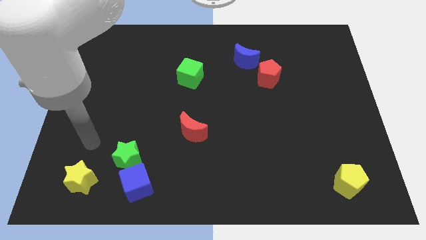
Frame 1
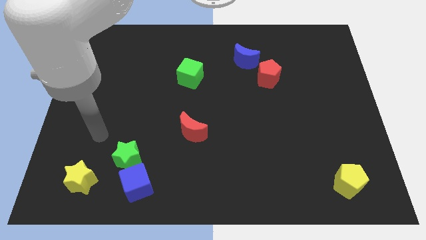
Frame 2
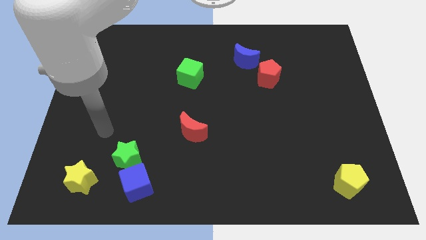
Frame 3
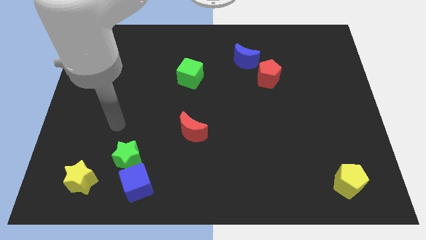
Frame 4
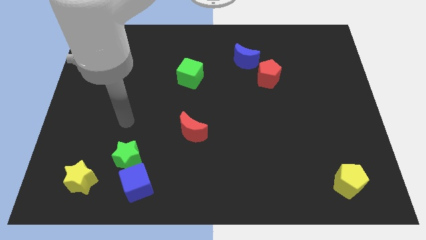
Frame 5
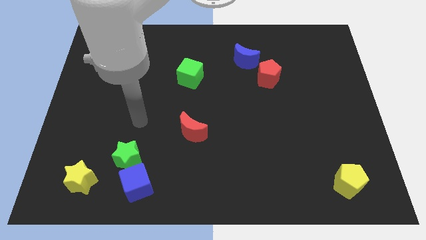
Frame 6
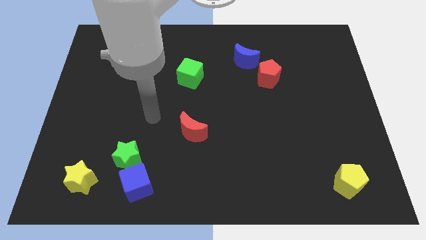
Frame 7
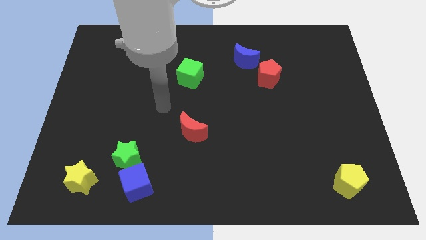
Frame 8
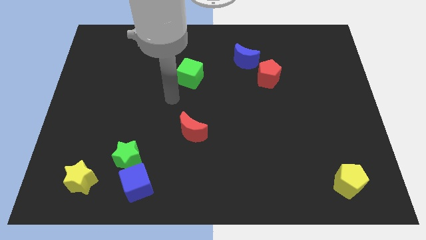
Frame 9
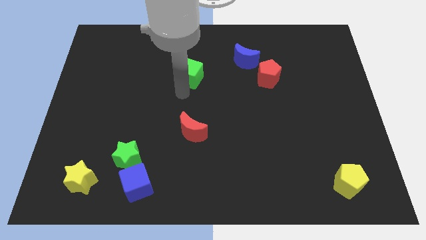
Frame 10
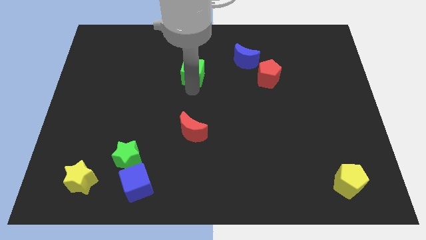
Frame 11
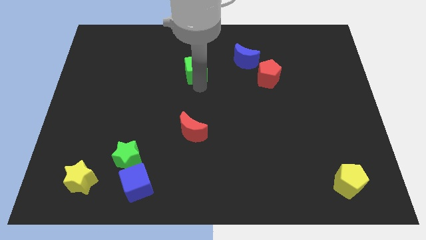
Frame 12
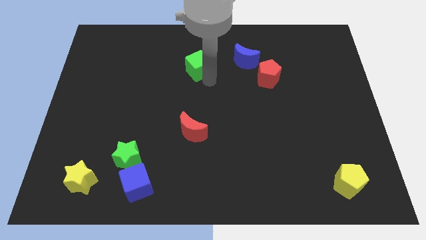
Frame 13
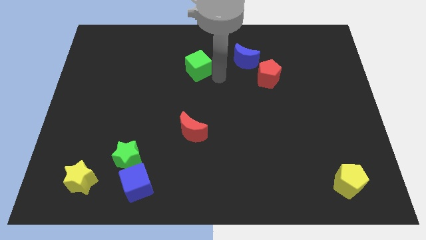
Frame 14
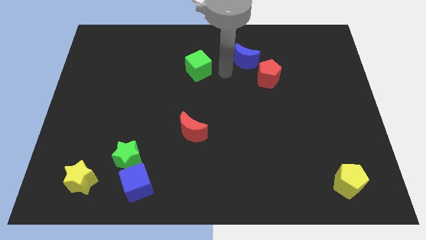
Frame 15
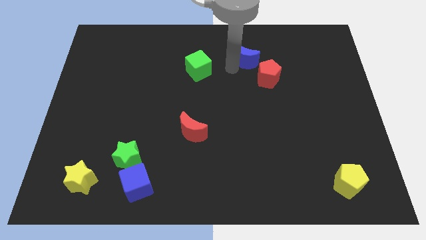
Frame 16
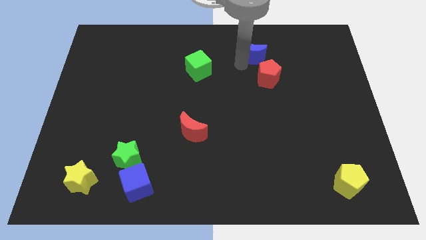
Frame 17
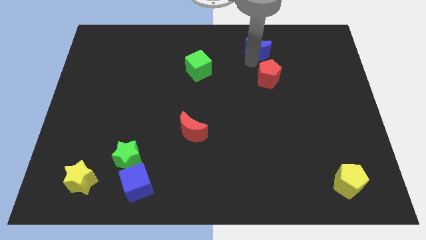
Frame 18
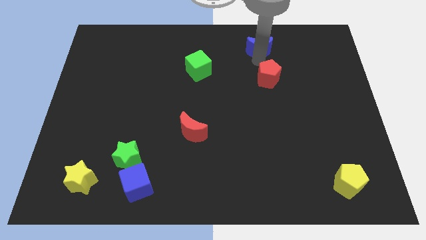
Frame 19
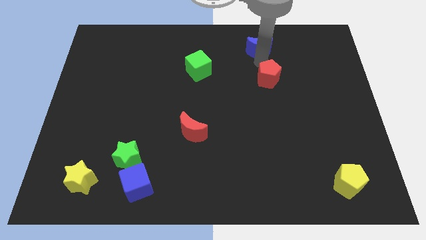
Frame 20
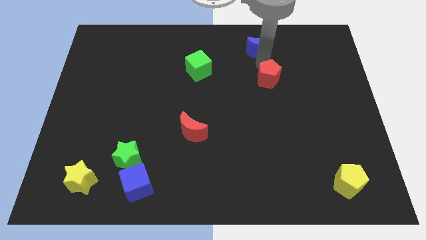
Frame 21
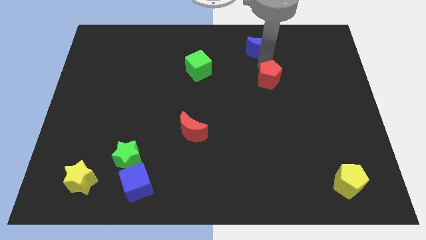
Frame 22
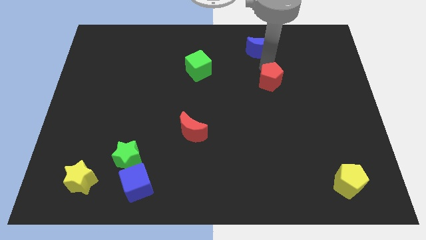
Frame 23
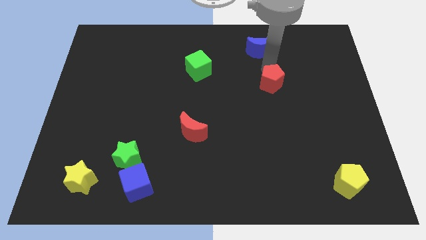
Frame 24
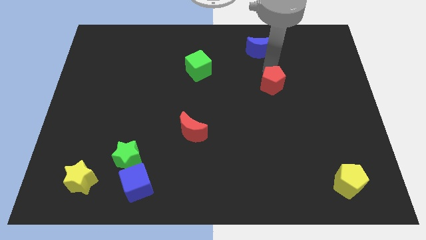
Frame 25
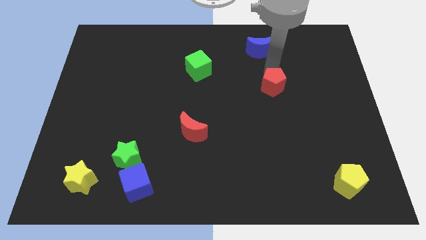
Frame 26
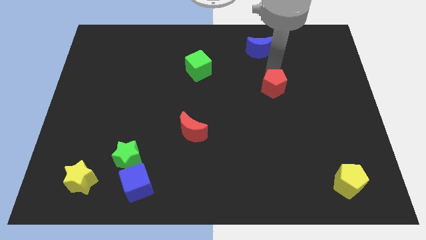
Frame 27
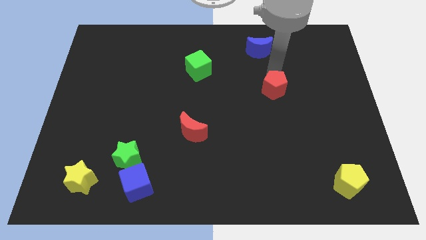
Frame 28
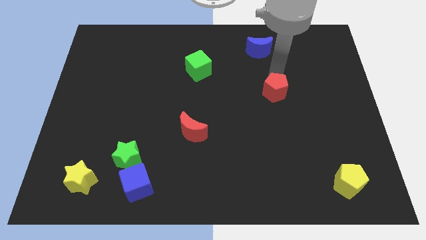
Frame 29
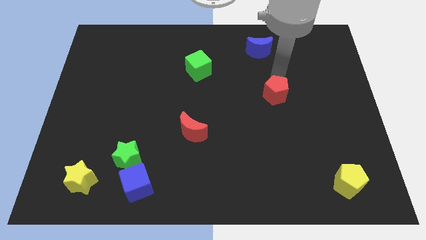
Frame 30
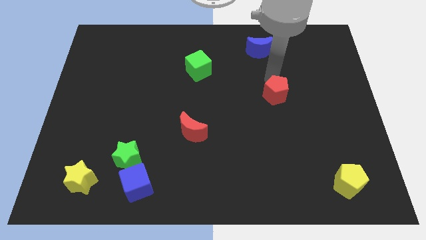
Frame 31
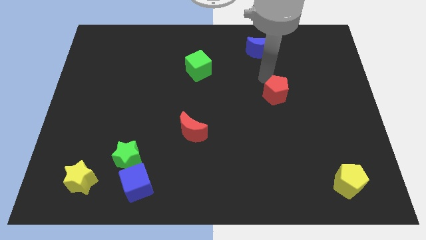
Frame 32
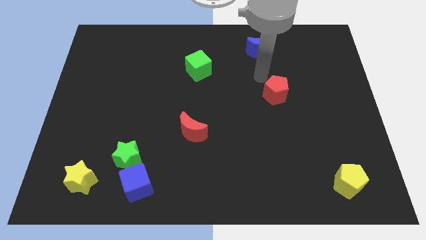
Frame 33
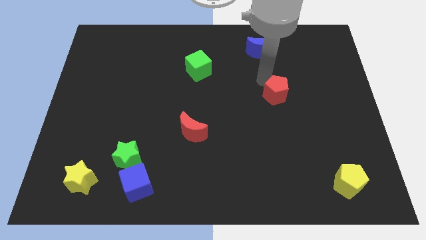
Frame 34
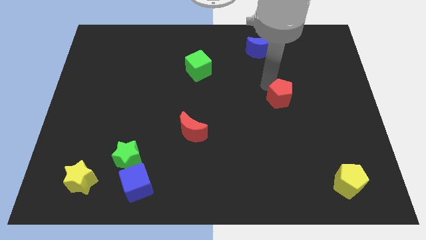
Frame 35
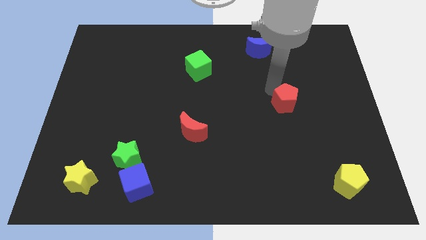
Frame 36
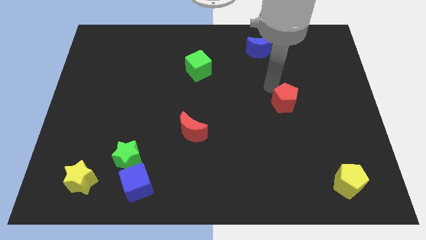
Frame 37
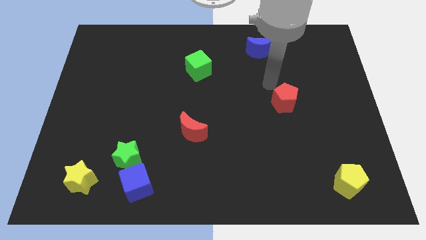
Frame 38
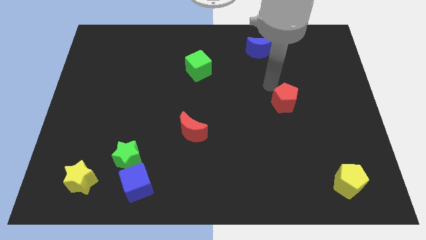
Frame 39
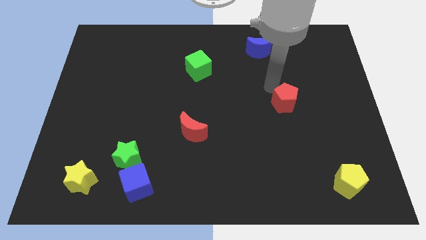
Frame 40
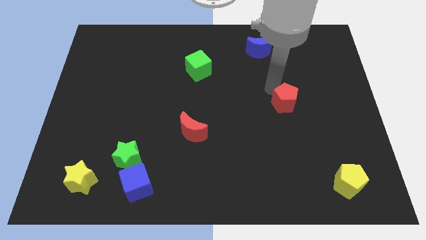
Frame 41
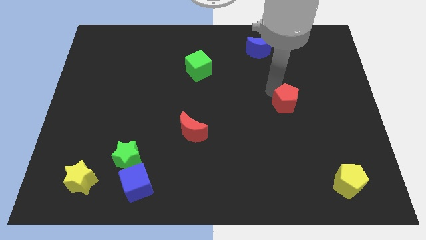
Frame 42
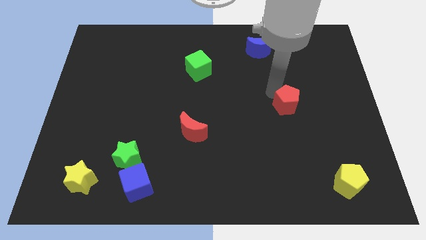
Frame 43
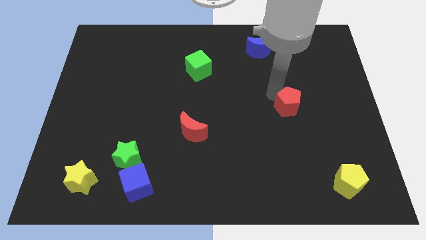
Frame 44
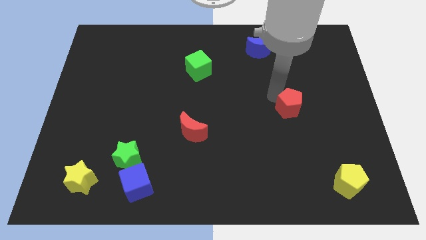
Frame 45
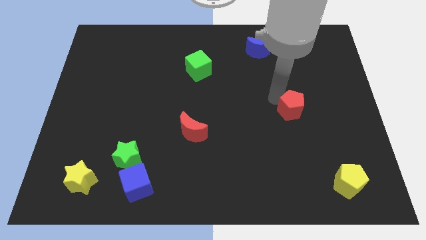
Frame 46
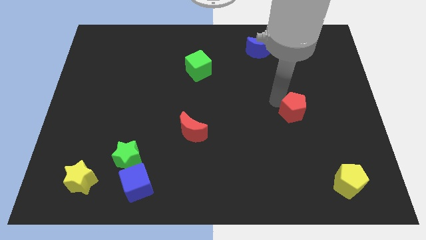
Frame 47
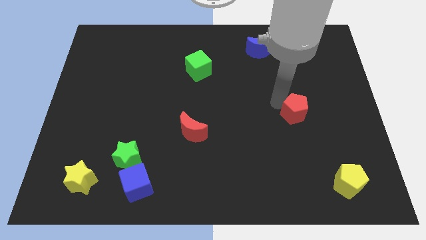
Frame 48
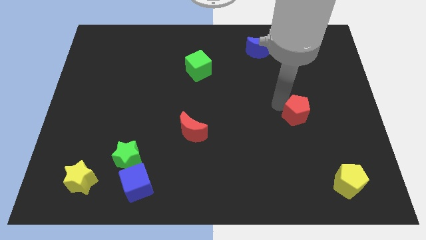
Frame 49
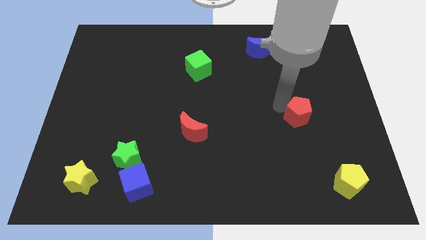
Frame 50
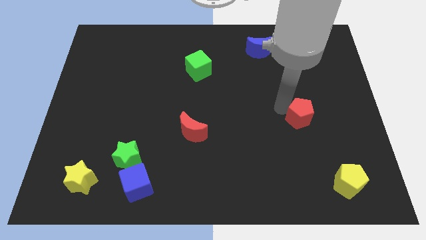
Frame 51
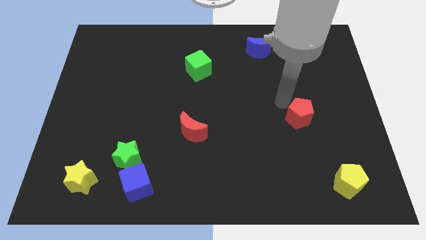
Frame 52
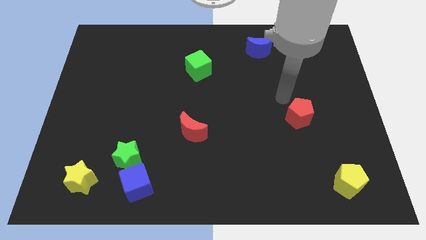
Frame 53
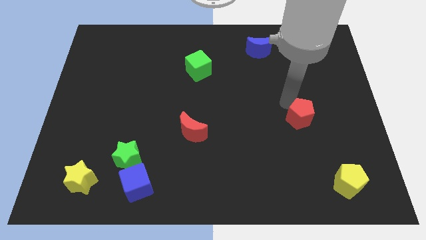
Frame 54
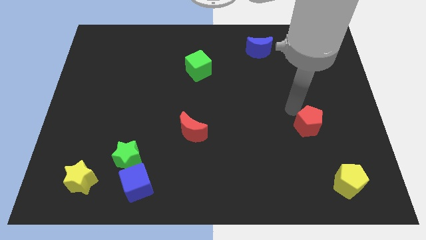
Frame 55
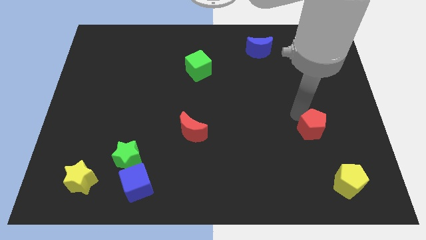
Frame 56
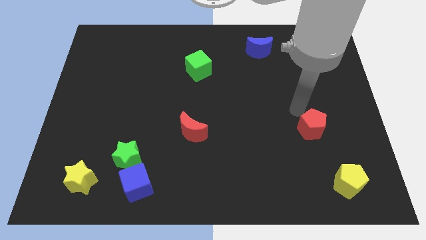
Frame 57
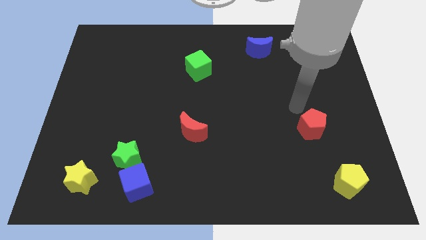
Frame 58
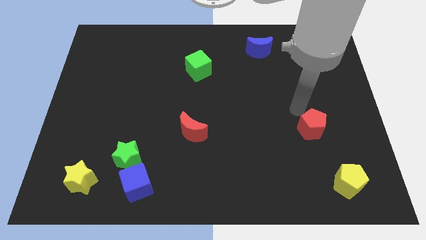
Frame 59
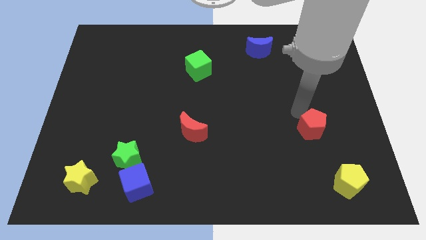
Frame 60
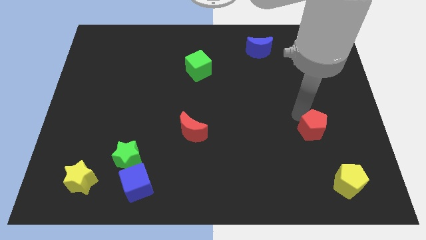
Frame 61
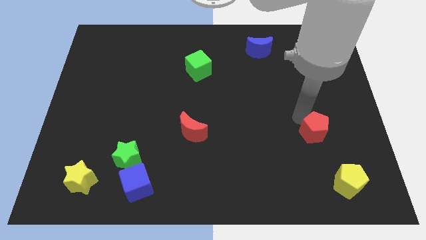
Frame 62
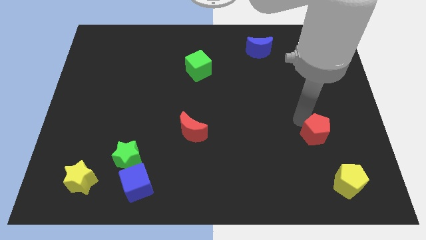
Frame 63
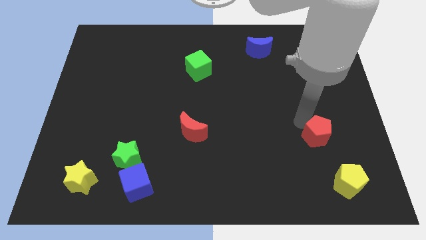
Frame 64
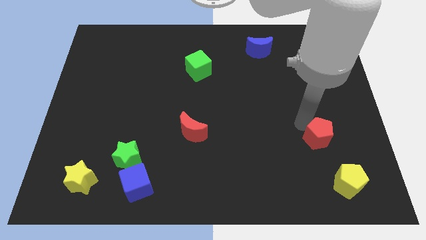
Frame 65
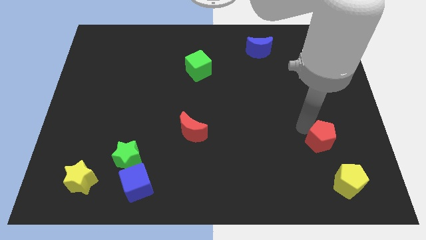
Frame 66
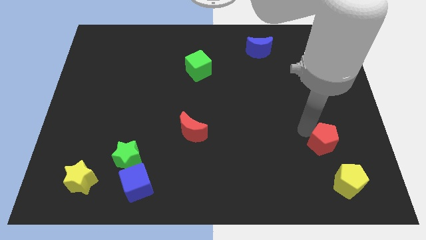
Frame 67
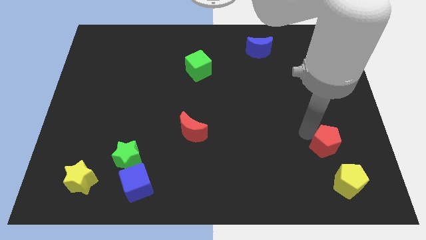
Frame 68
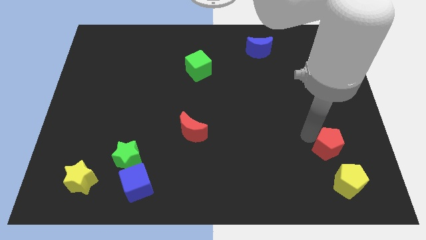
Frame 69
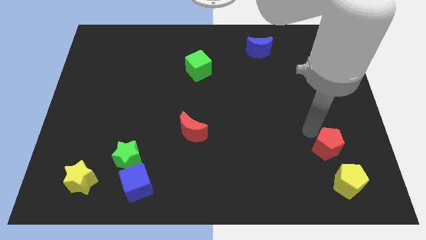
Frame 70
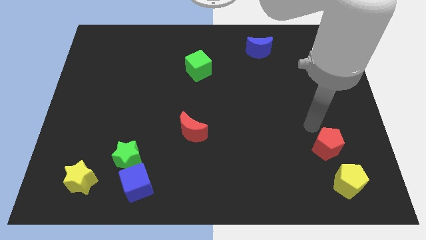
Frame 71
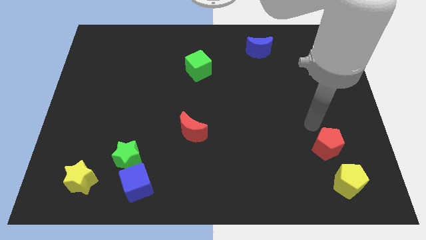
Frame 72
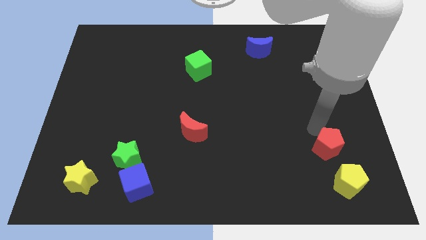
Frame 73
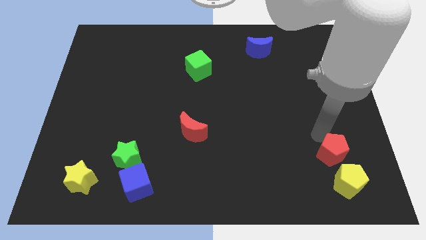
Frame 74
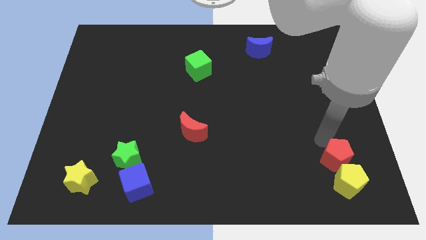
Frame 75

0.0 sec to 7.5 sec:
slide the red pentagon towards the yellow pentagon
